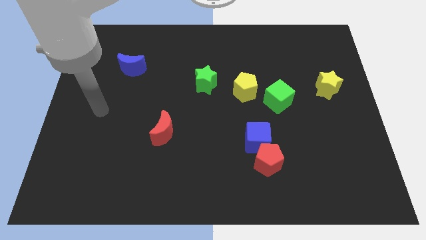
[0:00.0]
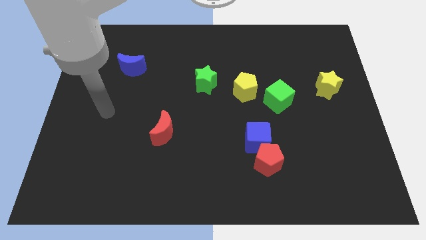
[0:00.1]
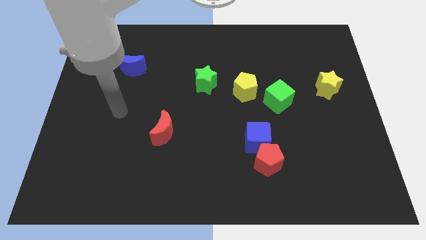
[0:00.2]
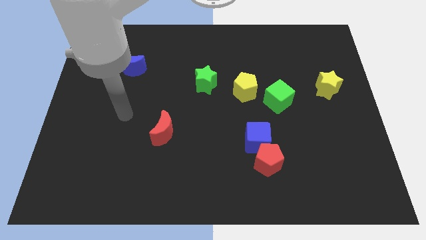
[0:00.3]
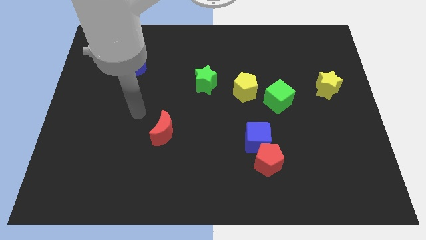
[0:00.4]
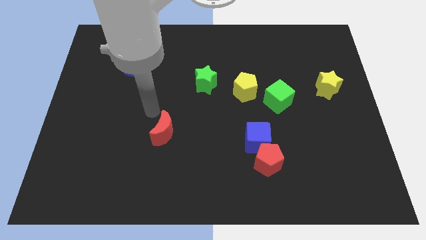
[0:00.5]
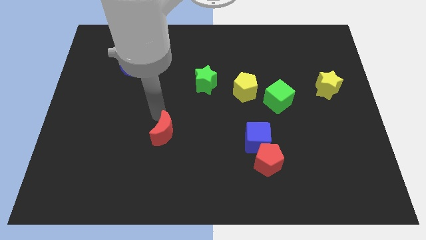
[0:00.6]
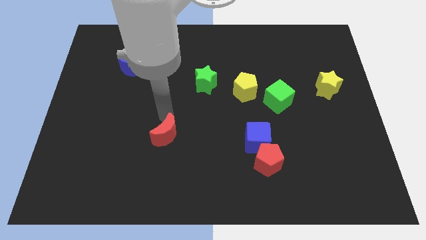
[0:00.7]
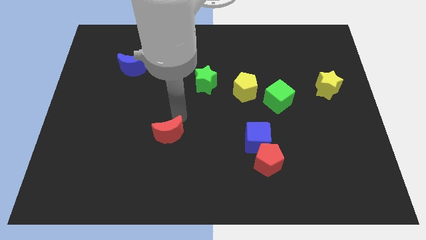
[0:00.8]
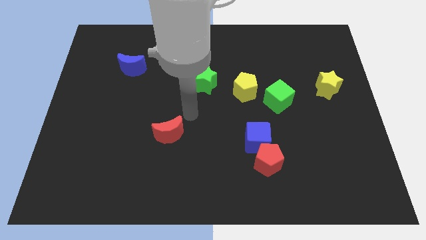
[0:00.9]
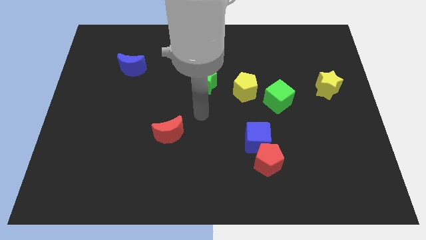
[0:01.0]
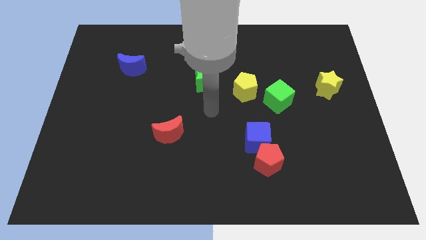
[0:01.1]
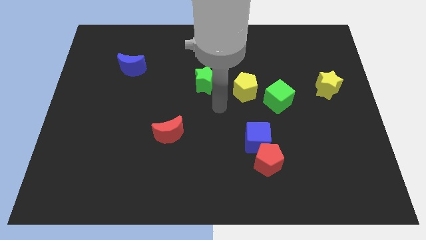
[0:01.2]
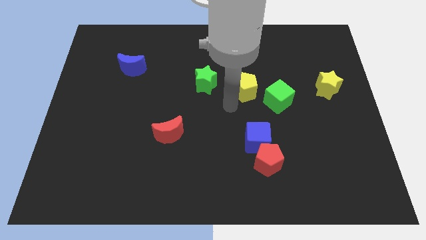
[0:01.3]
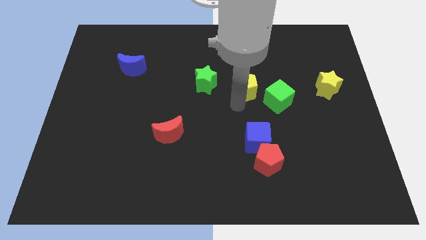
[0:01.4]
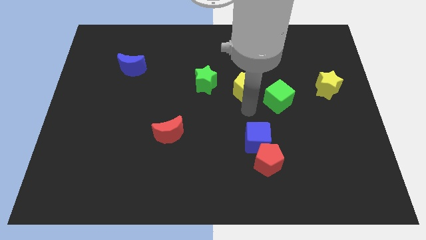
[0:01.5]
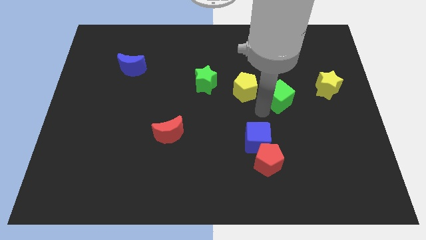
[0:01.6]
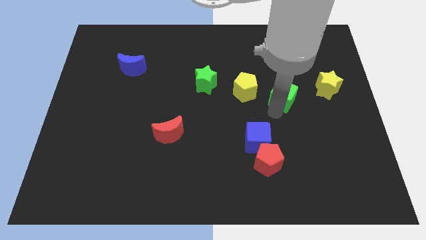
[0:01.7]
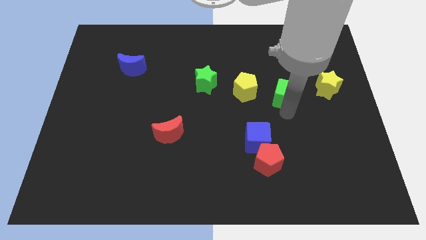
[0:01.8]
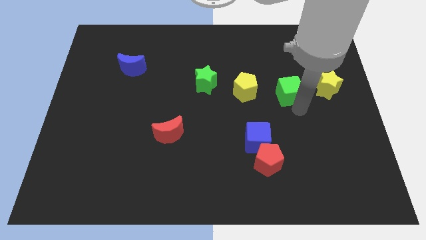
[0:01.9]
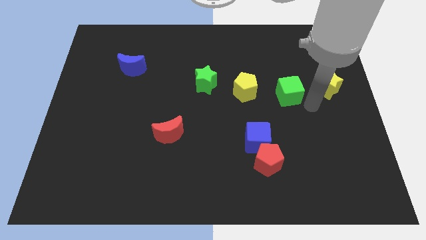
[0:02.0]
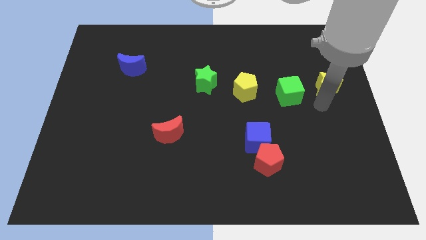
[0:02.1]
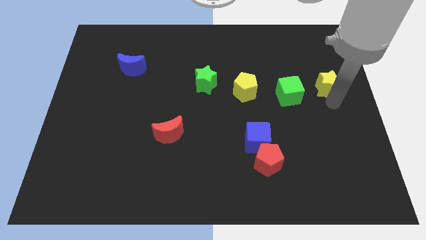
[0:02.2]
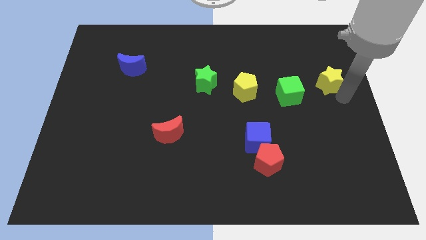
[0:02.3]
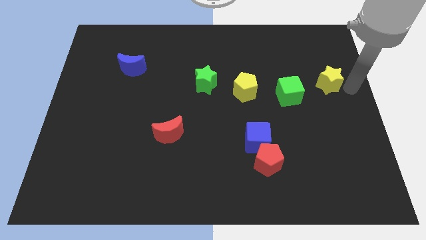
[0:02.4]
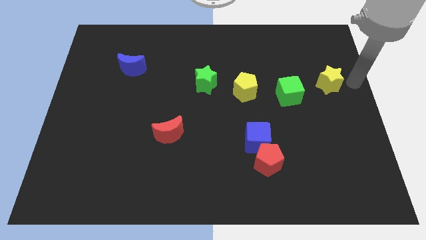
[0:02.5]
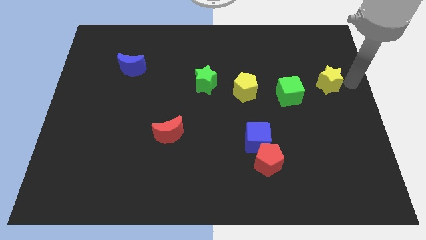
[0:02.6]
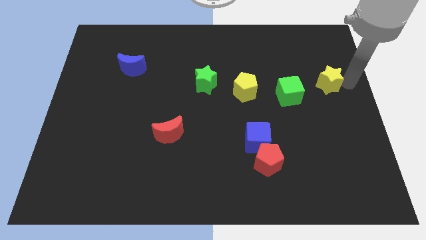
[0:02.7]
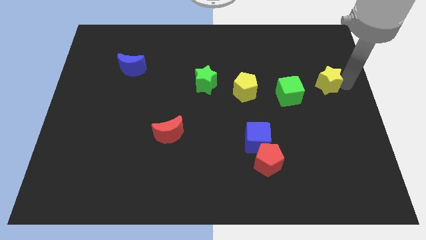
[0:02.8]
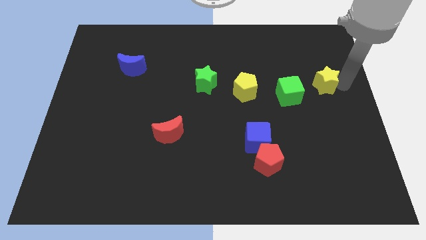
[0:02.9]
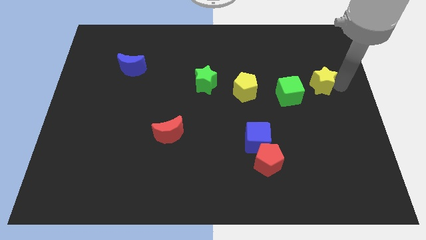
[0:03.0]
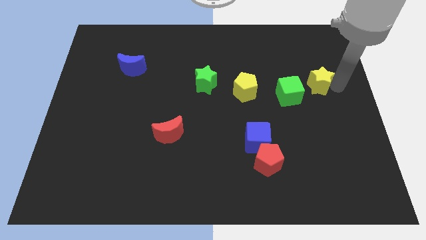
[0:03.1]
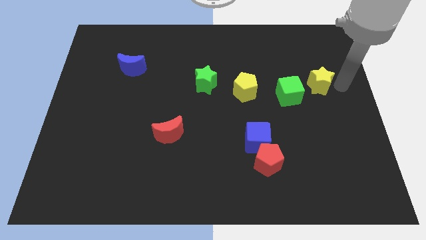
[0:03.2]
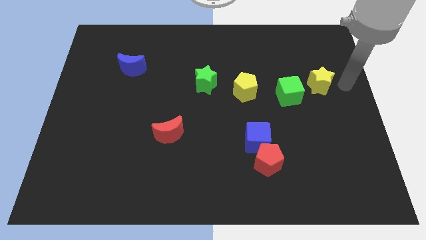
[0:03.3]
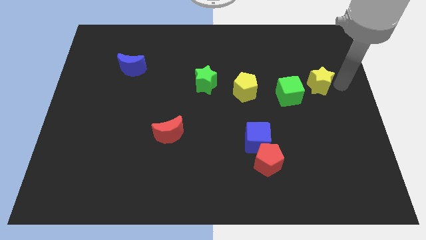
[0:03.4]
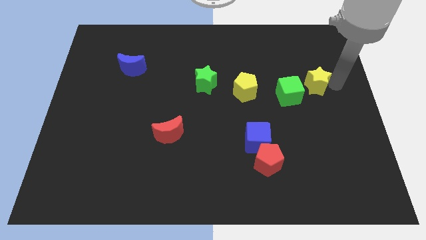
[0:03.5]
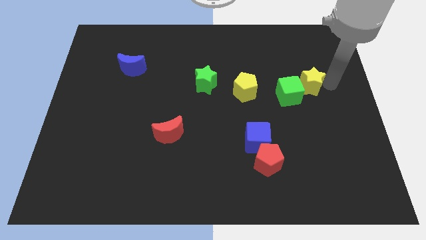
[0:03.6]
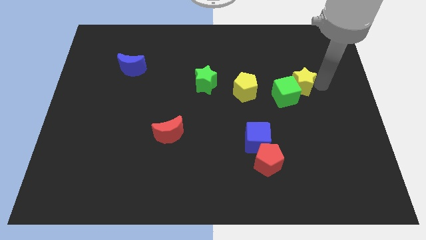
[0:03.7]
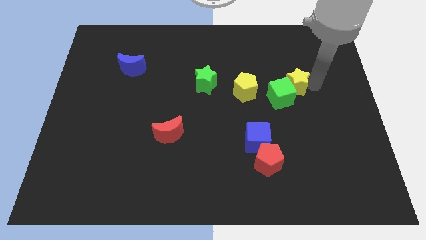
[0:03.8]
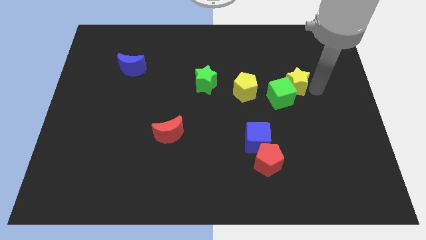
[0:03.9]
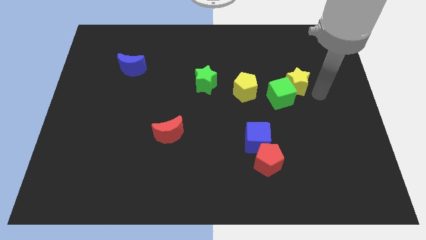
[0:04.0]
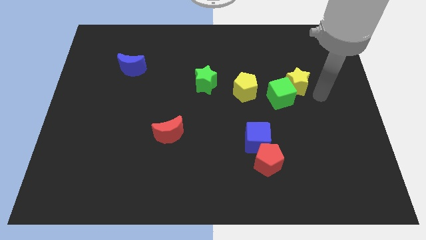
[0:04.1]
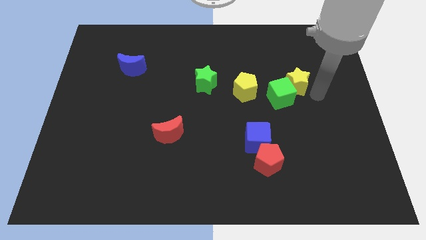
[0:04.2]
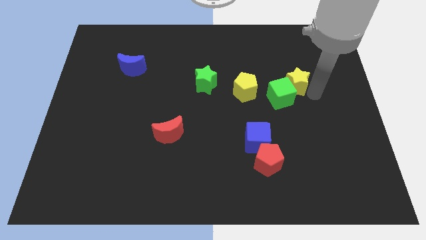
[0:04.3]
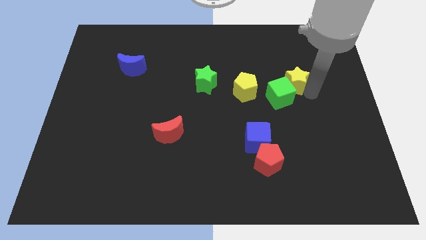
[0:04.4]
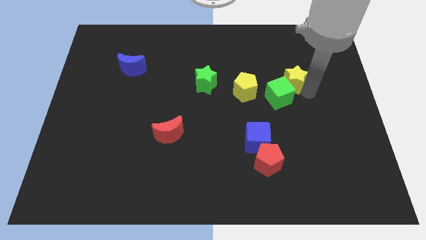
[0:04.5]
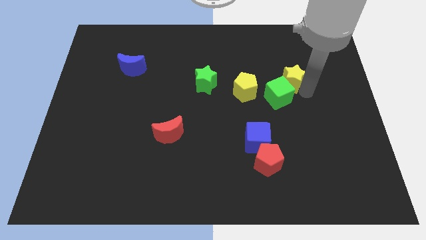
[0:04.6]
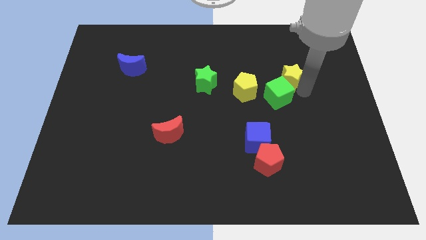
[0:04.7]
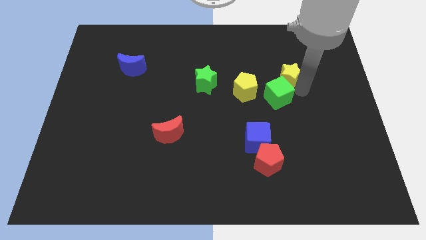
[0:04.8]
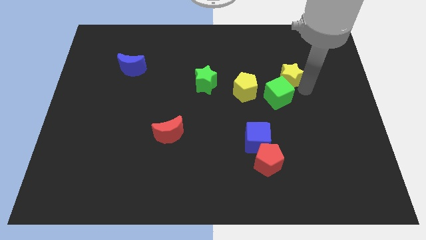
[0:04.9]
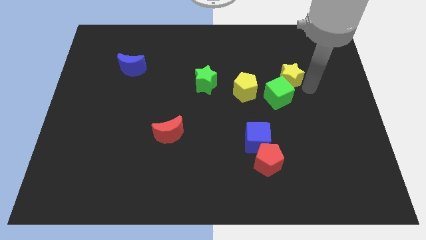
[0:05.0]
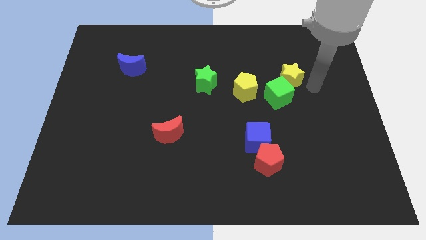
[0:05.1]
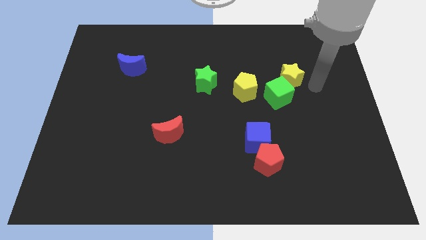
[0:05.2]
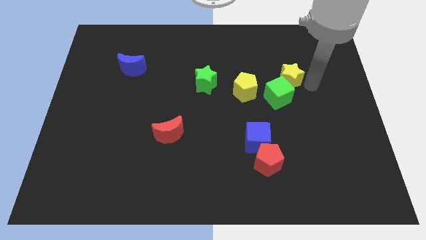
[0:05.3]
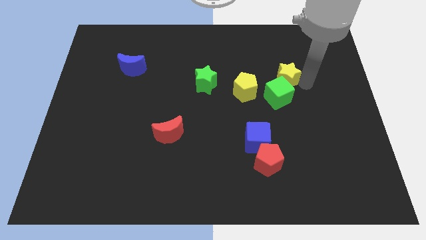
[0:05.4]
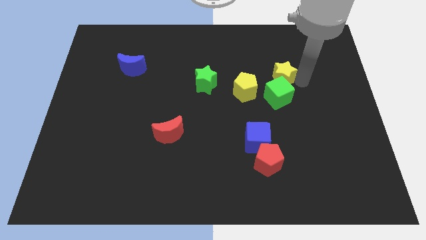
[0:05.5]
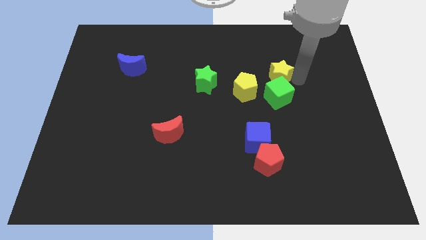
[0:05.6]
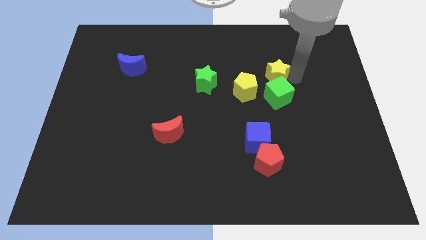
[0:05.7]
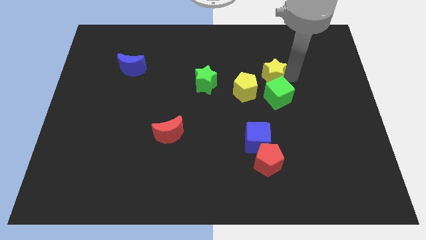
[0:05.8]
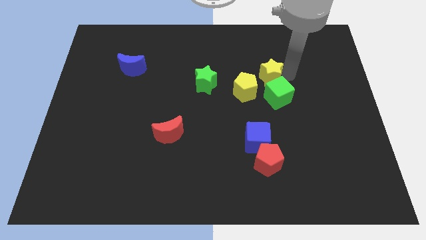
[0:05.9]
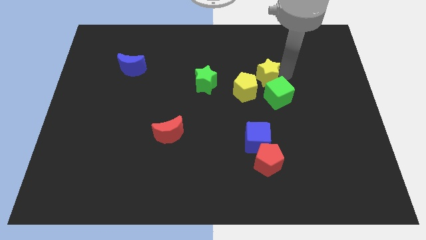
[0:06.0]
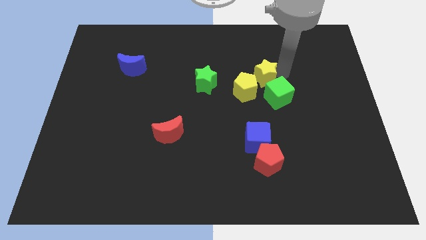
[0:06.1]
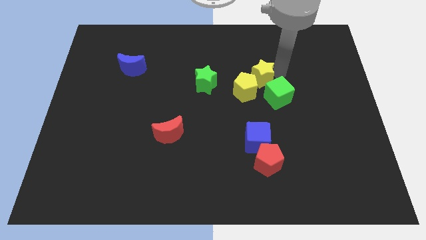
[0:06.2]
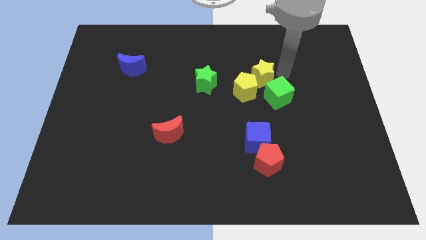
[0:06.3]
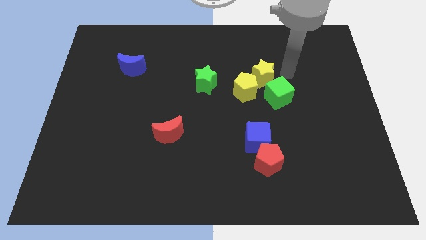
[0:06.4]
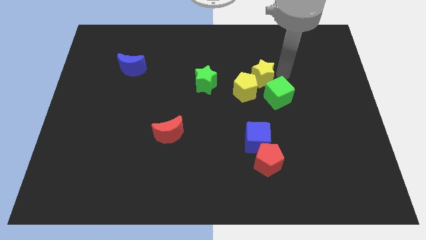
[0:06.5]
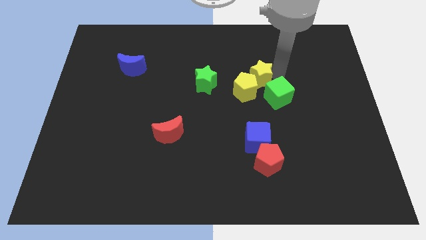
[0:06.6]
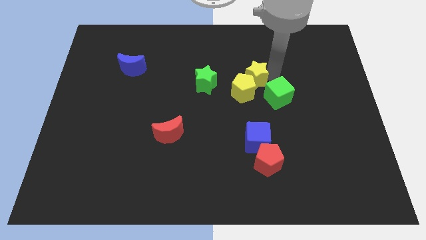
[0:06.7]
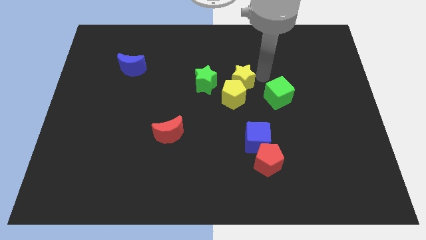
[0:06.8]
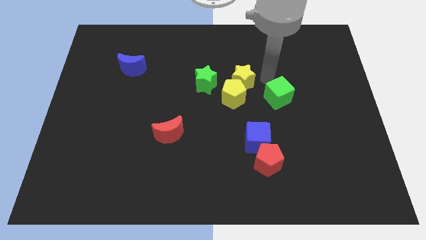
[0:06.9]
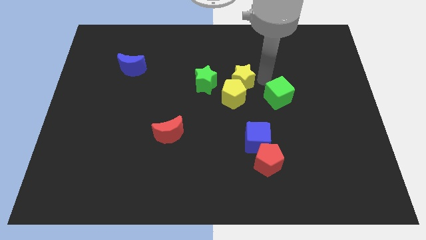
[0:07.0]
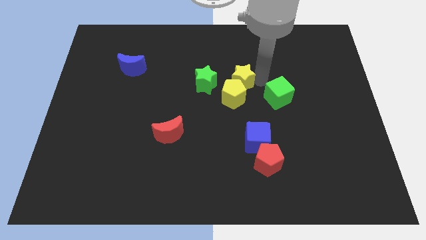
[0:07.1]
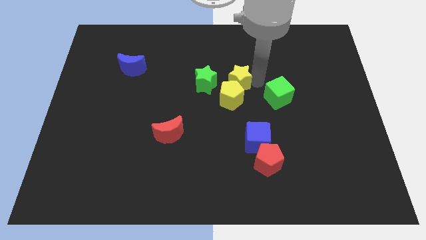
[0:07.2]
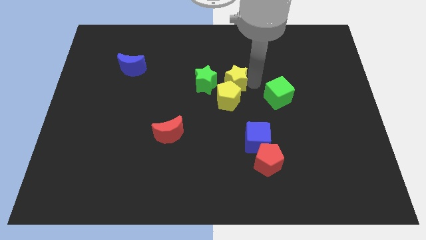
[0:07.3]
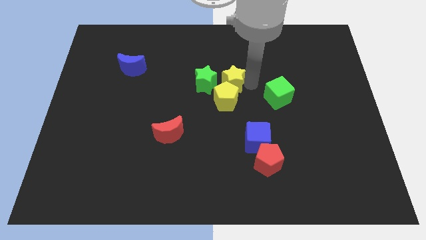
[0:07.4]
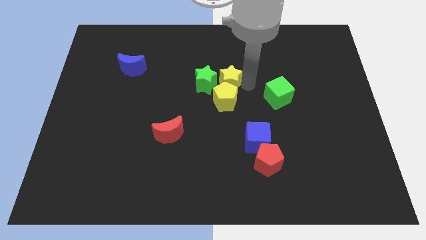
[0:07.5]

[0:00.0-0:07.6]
put the yellow star next to the green star

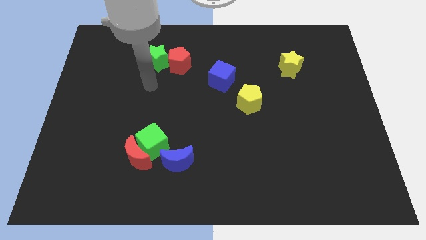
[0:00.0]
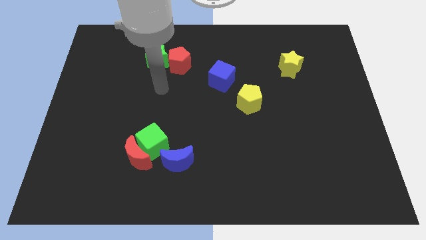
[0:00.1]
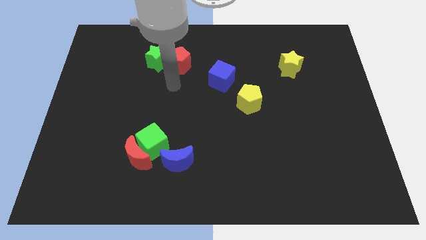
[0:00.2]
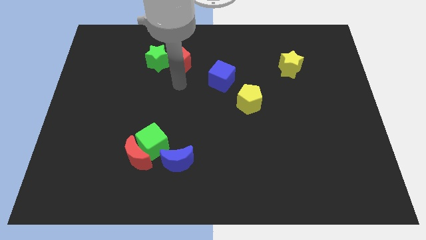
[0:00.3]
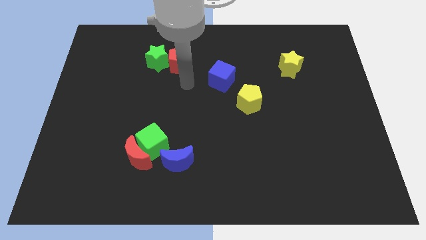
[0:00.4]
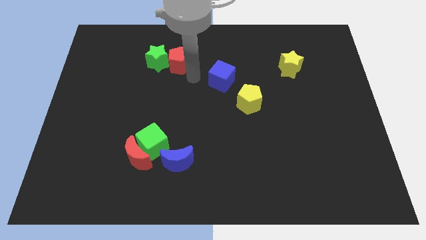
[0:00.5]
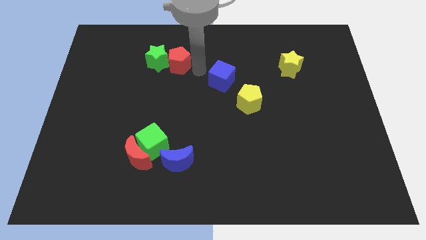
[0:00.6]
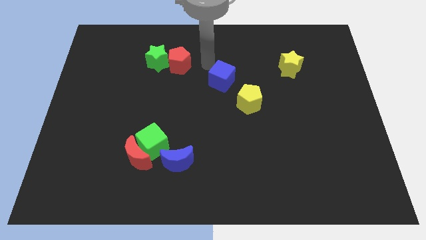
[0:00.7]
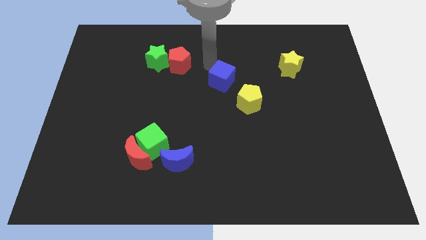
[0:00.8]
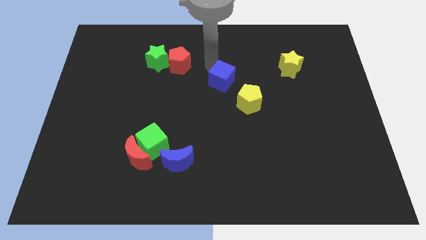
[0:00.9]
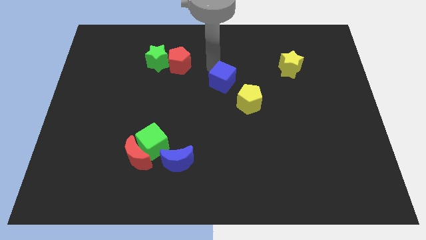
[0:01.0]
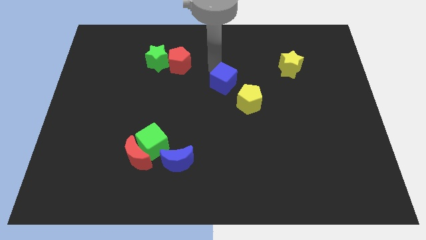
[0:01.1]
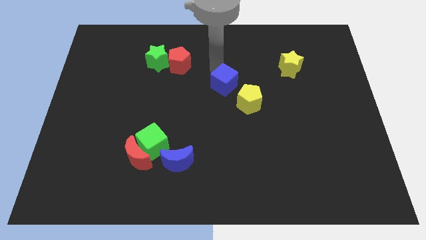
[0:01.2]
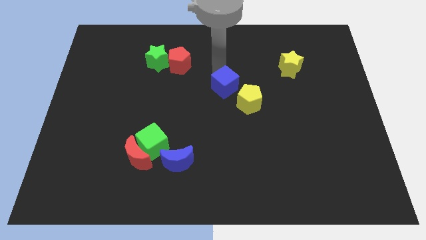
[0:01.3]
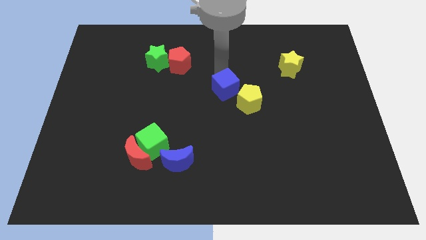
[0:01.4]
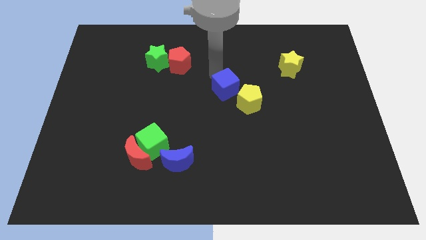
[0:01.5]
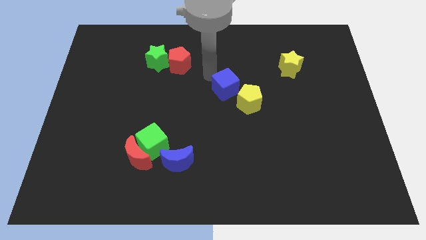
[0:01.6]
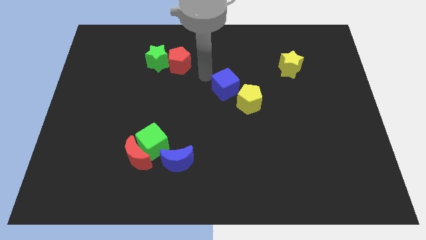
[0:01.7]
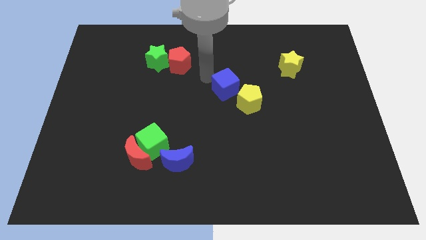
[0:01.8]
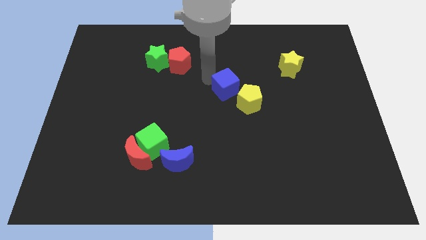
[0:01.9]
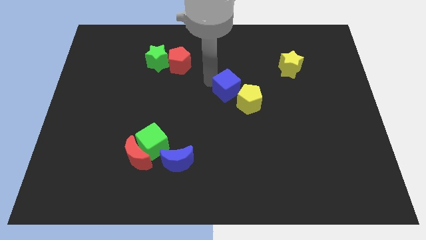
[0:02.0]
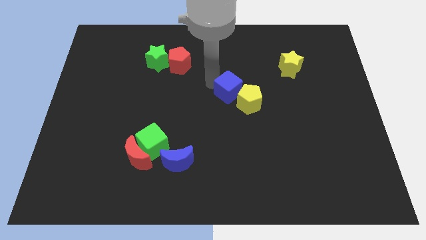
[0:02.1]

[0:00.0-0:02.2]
put the blue cube close to the yellow pentagon
